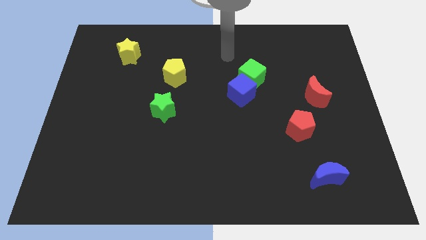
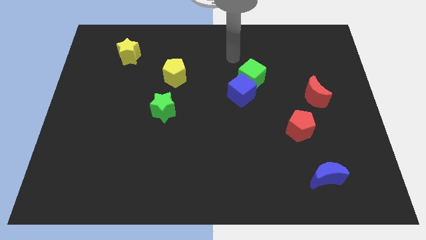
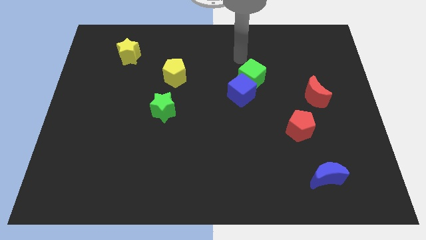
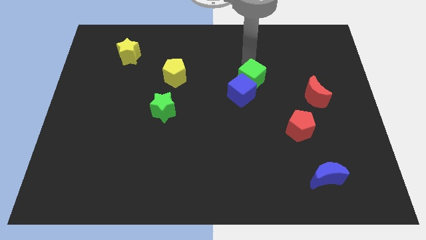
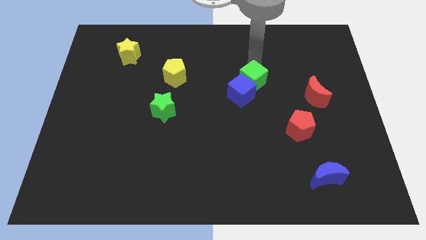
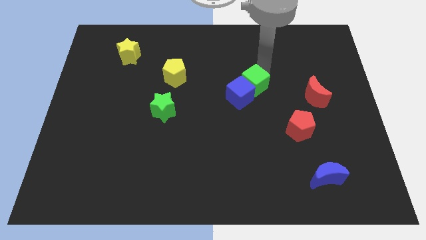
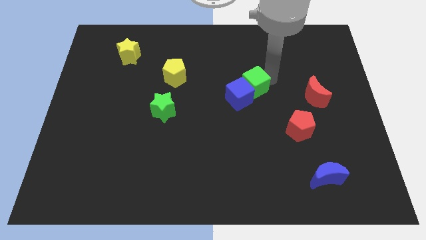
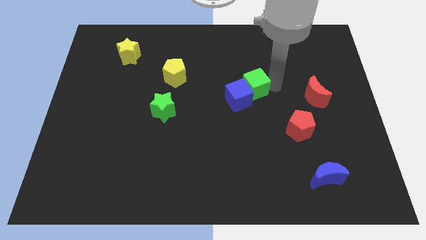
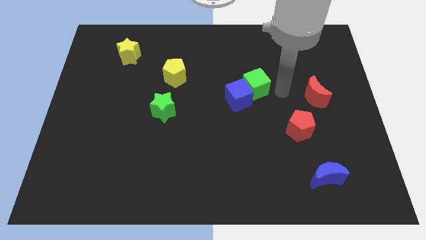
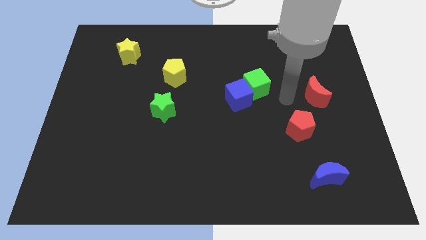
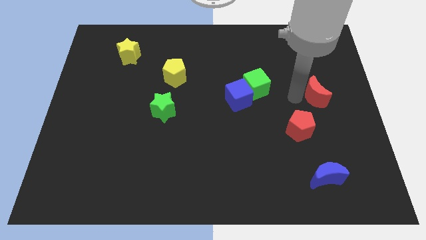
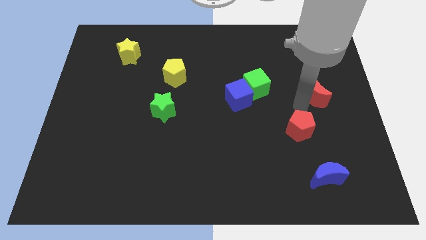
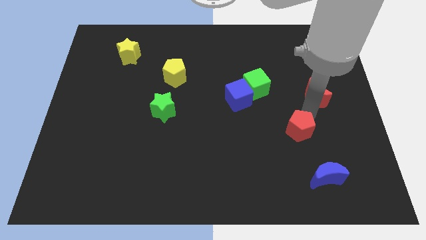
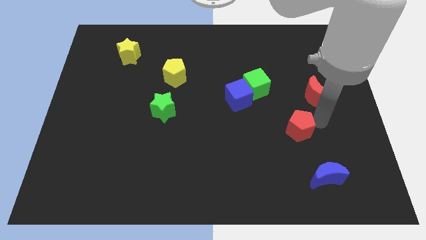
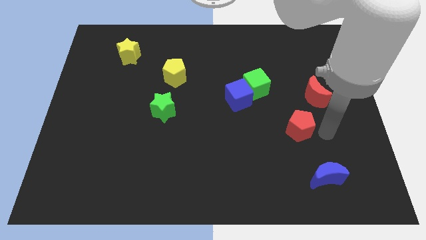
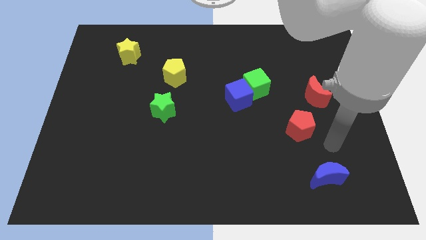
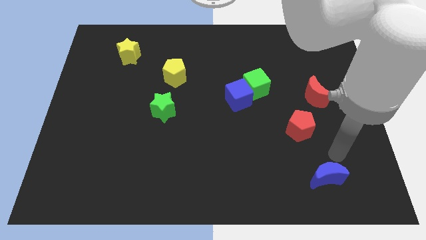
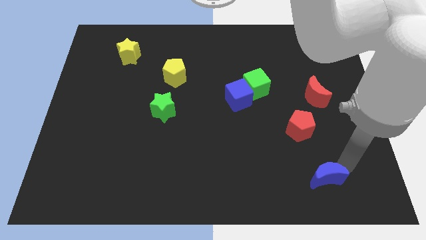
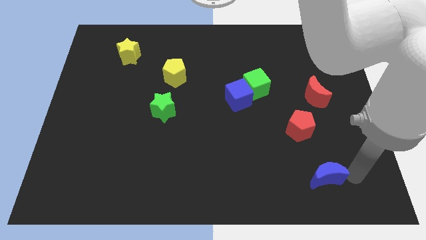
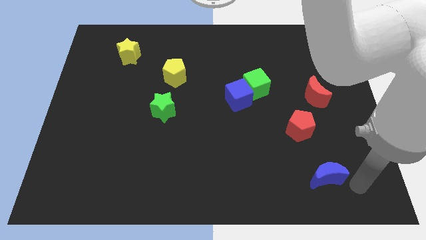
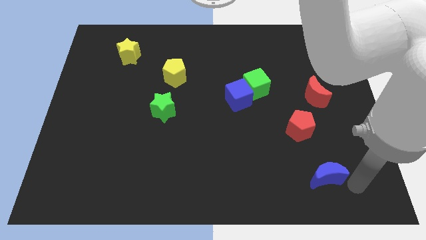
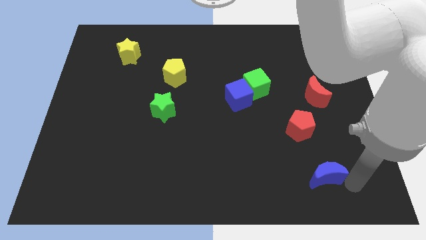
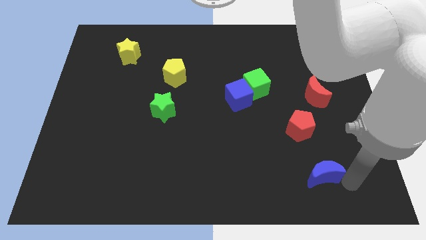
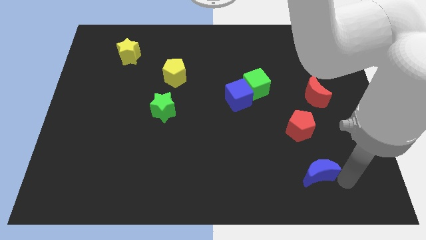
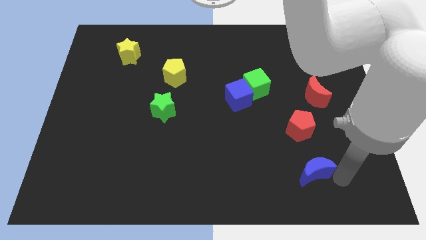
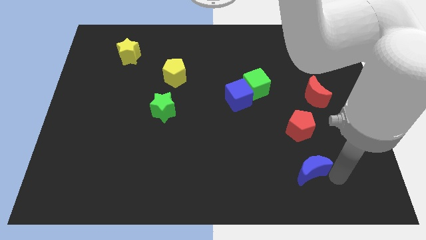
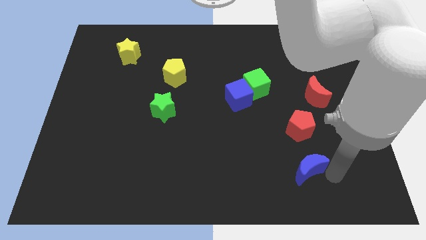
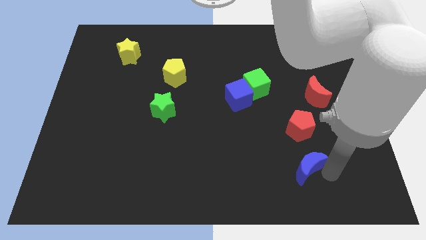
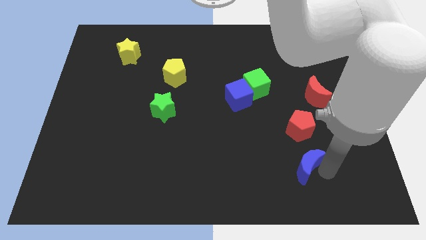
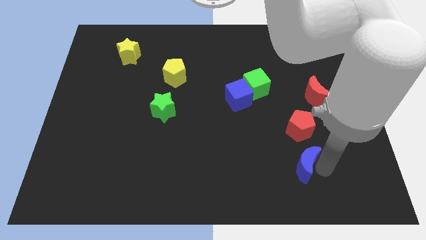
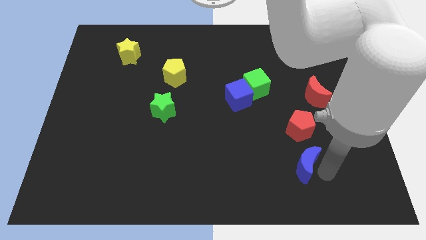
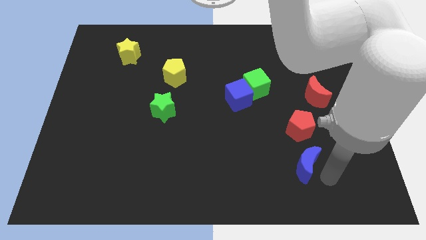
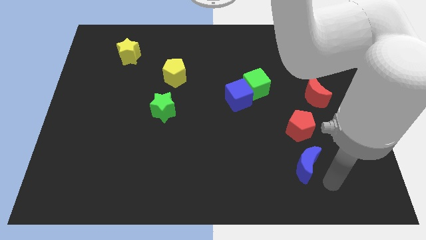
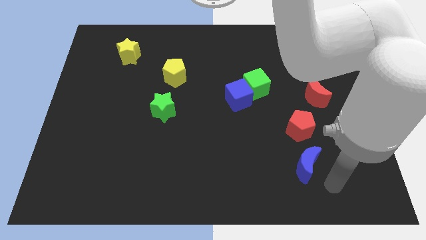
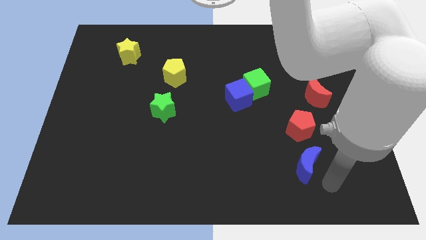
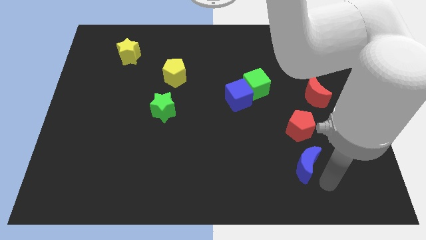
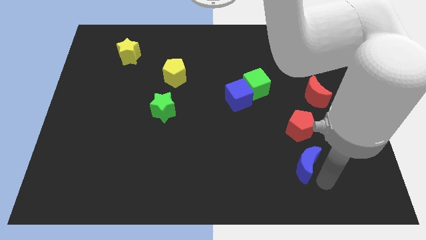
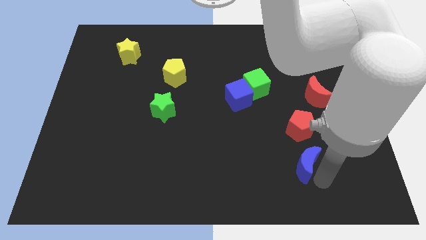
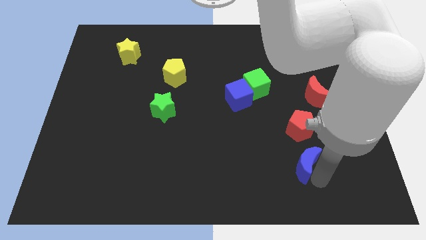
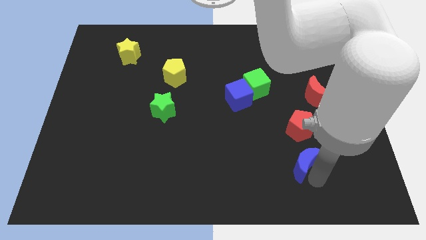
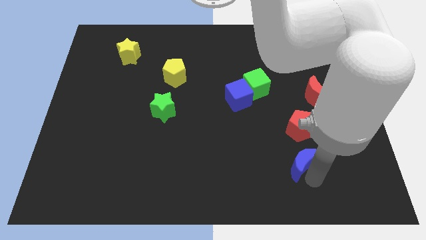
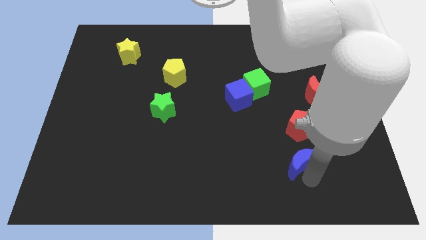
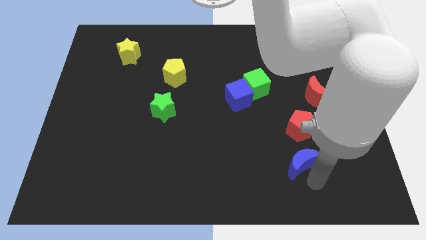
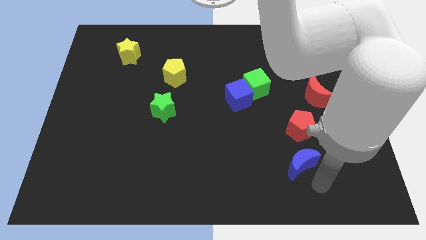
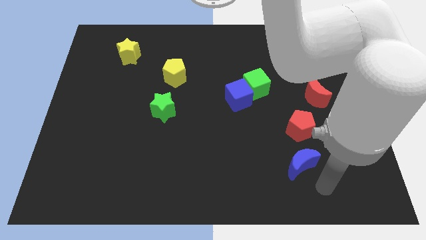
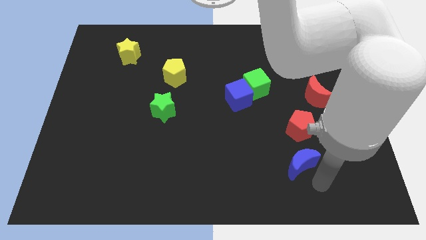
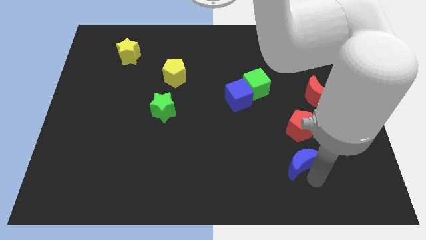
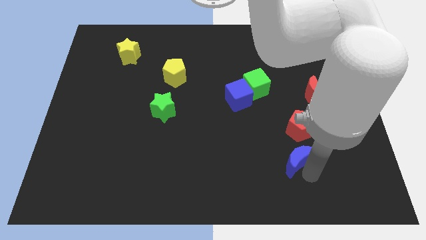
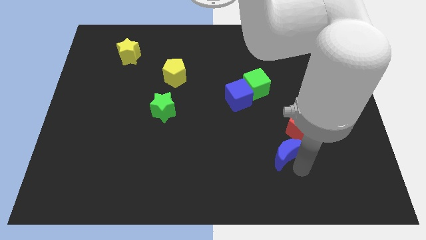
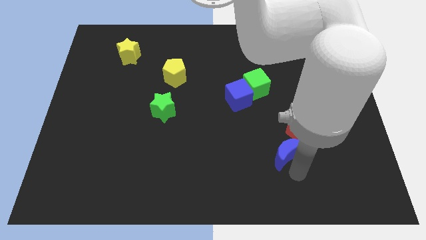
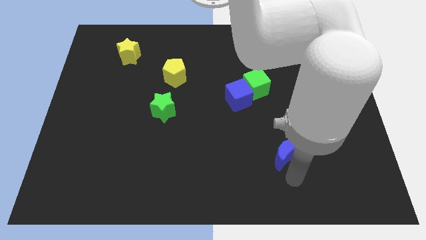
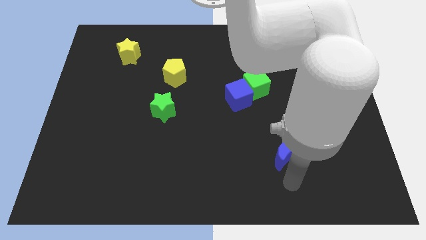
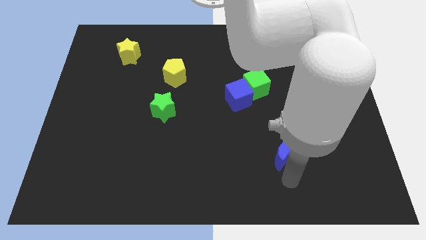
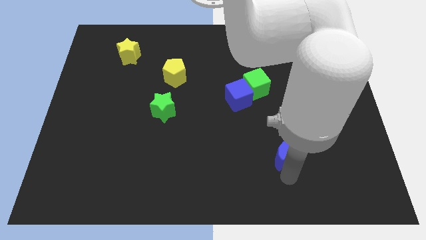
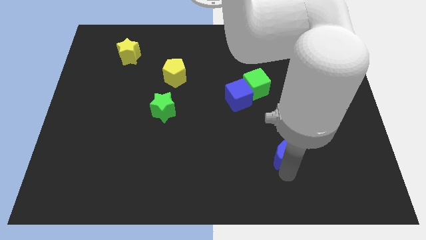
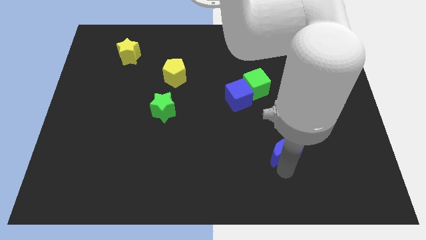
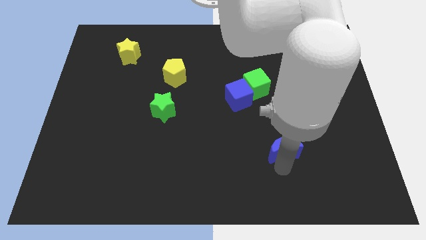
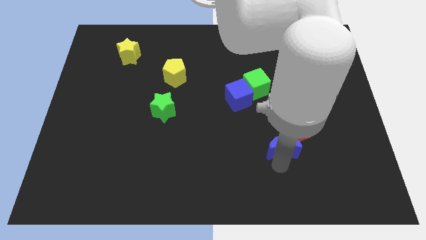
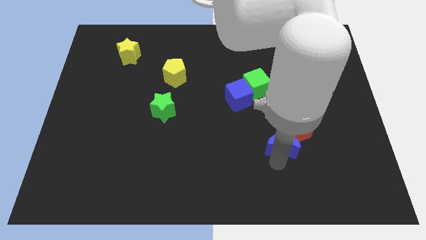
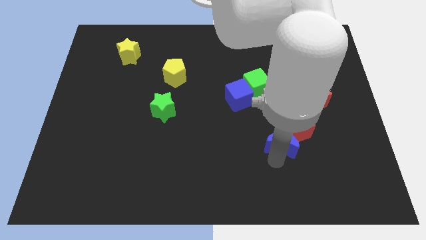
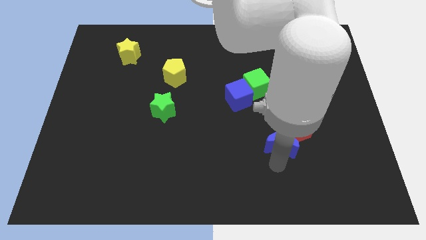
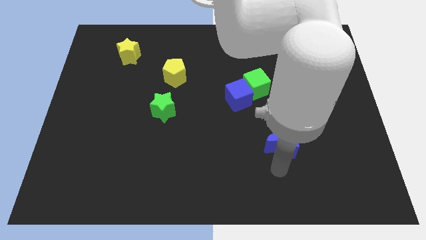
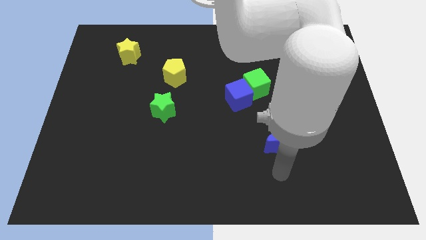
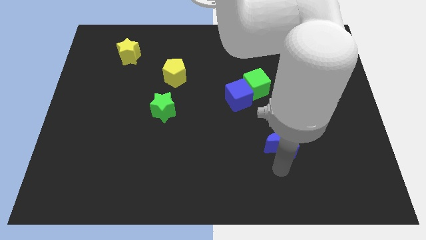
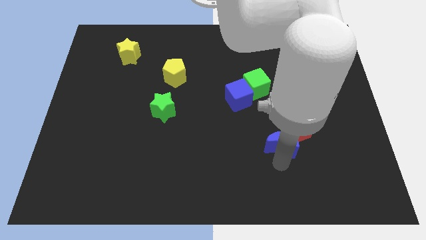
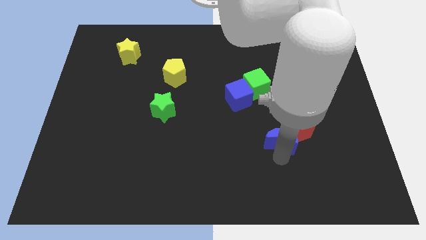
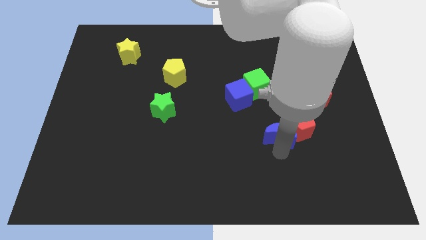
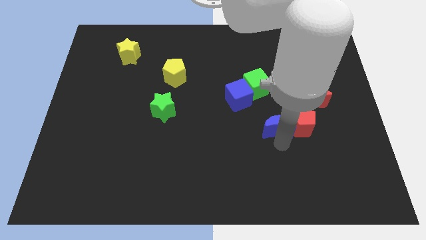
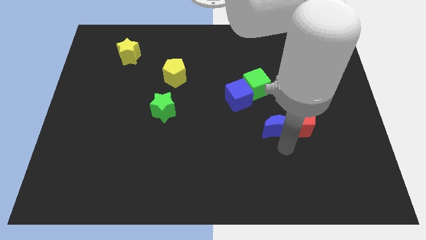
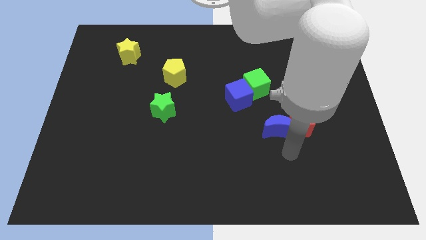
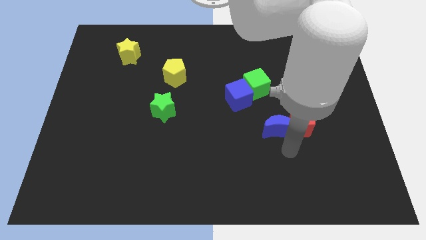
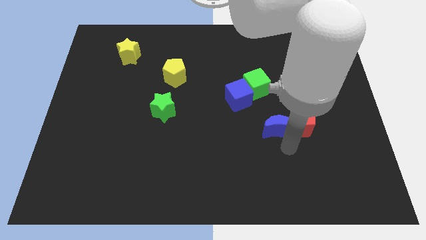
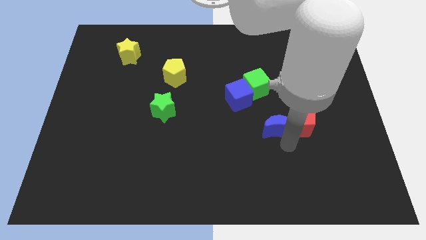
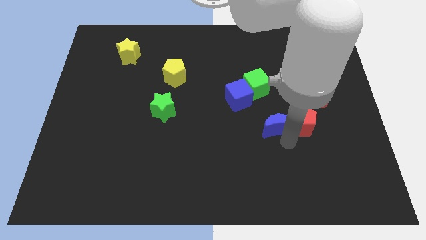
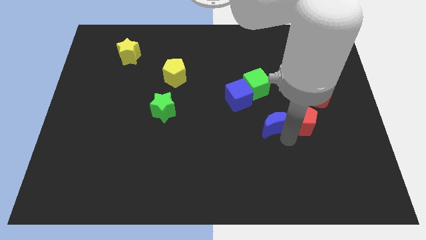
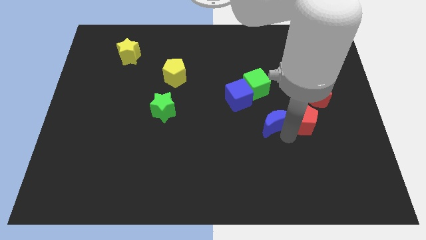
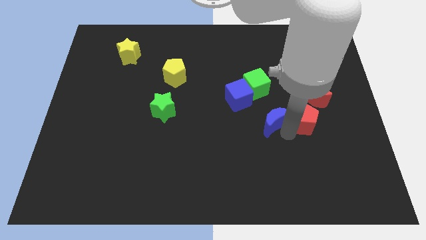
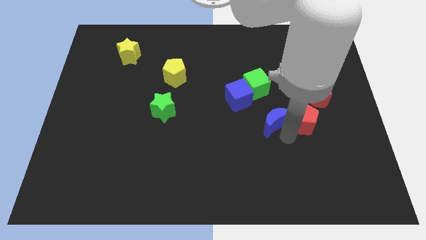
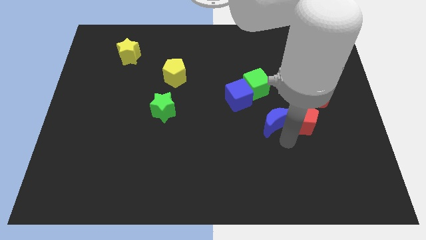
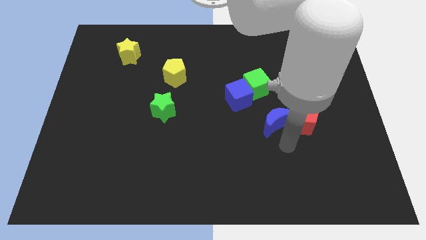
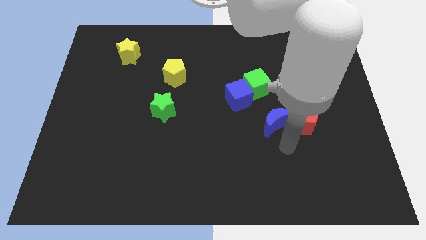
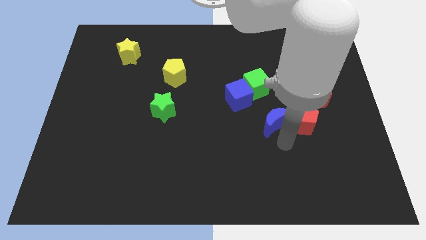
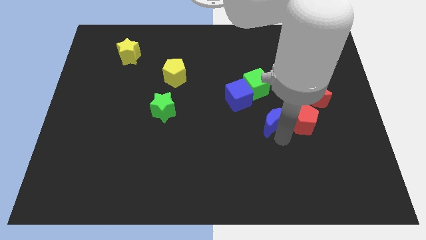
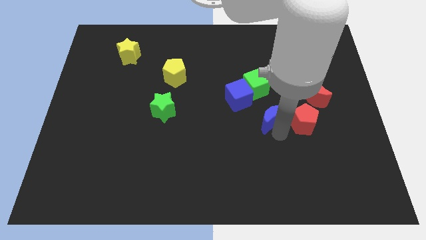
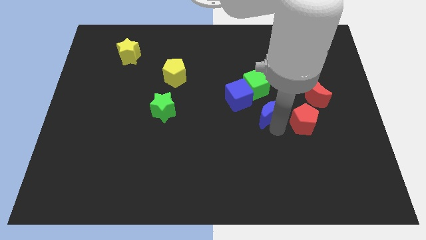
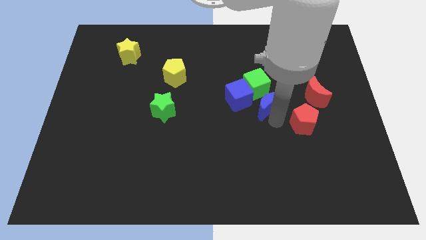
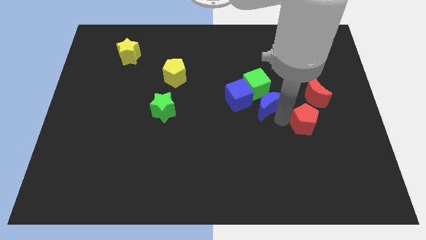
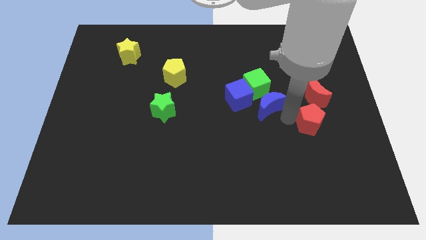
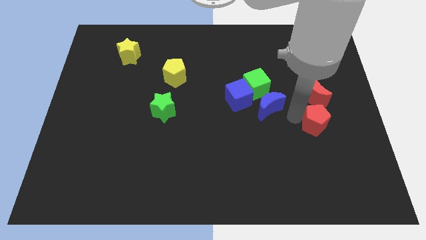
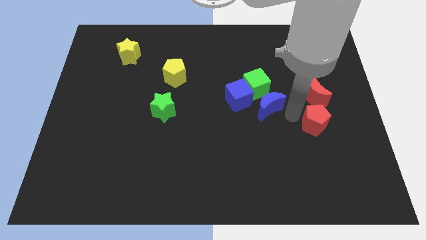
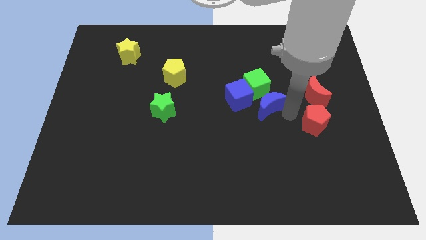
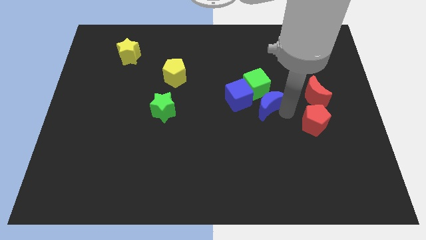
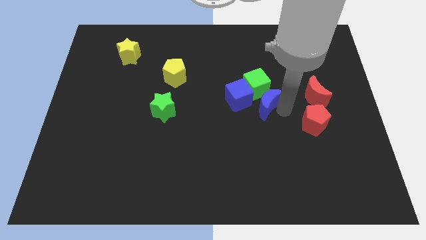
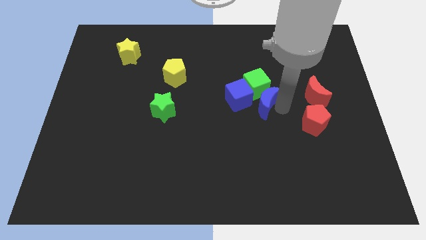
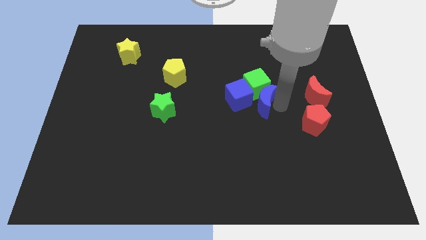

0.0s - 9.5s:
move the blue moon to the blue cube
